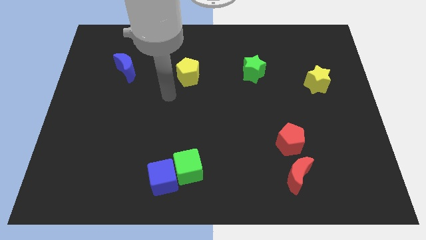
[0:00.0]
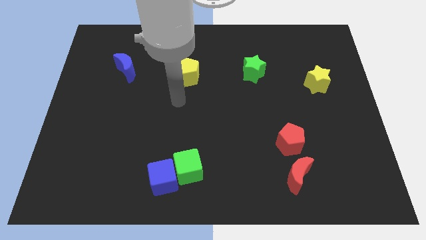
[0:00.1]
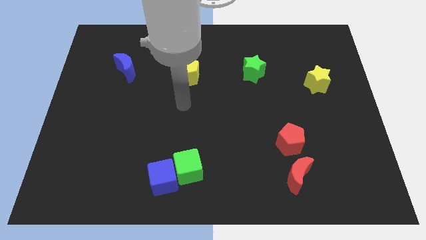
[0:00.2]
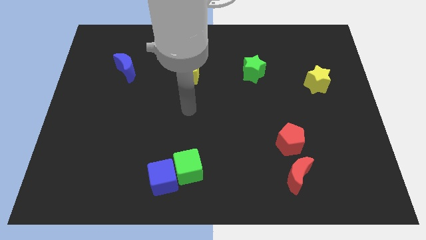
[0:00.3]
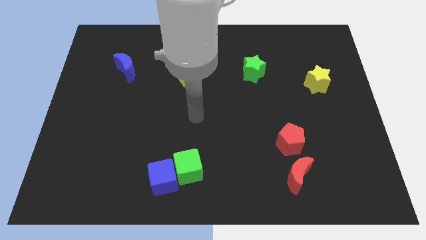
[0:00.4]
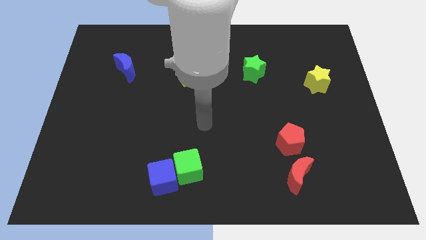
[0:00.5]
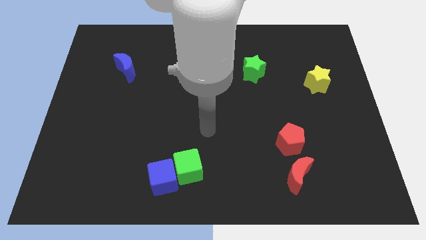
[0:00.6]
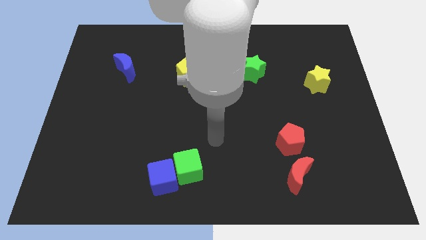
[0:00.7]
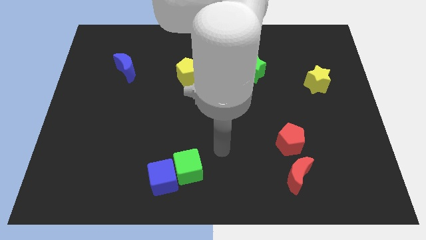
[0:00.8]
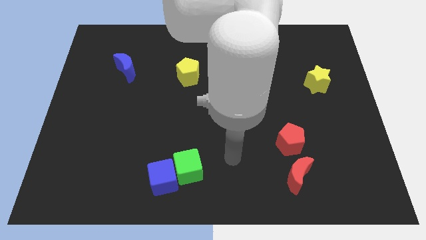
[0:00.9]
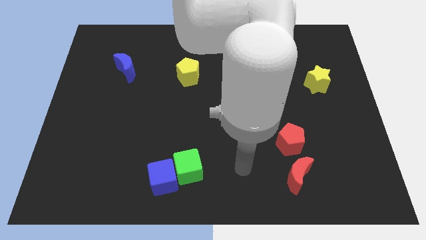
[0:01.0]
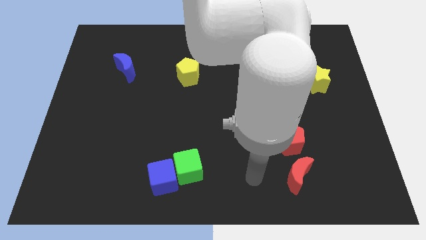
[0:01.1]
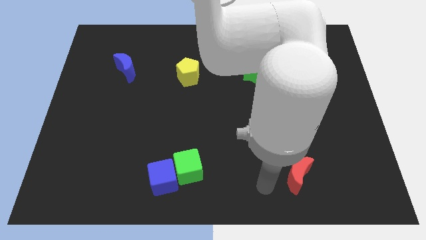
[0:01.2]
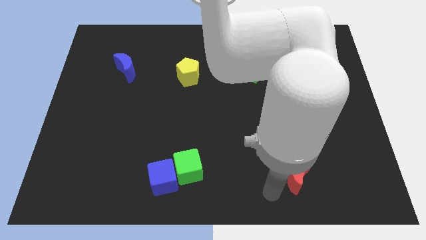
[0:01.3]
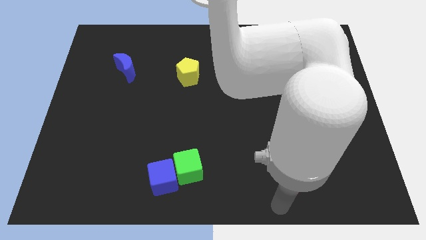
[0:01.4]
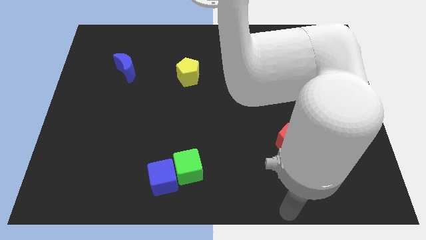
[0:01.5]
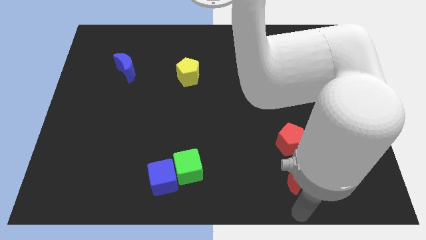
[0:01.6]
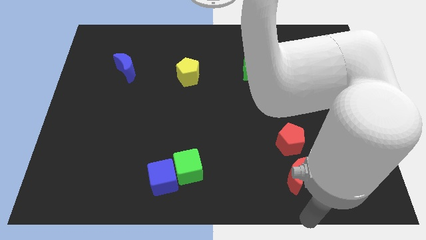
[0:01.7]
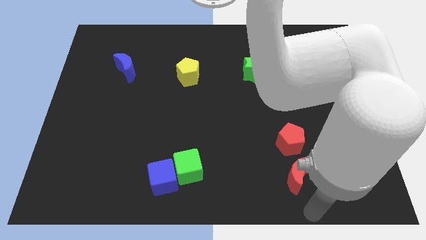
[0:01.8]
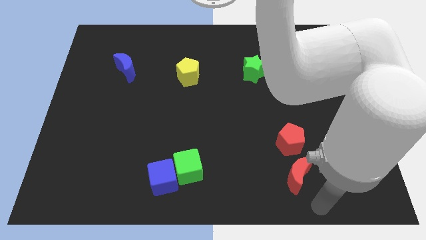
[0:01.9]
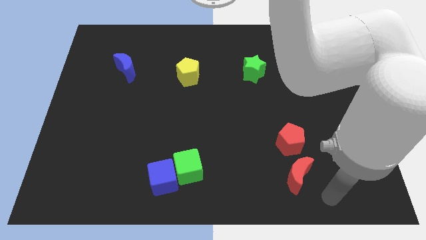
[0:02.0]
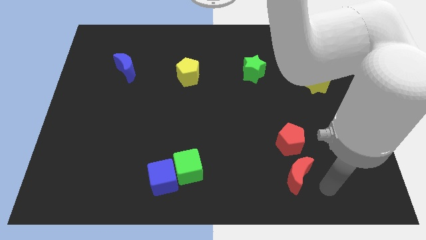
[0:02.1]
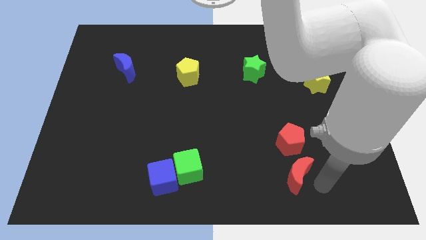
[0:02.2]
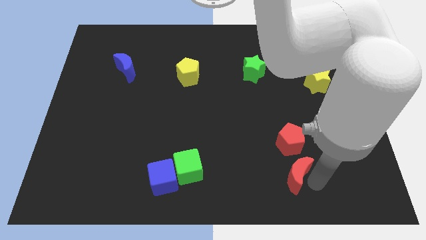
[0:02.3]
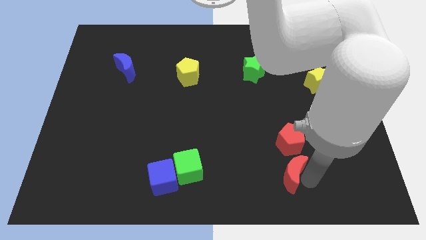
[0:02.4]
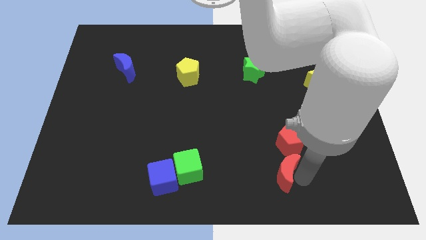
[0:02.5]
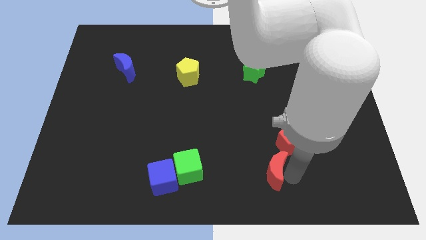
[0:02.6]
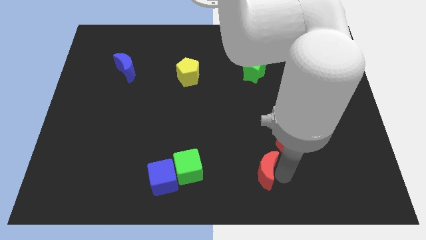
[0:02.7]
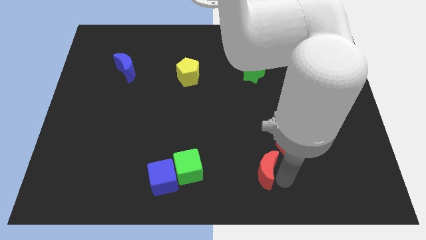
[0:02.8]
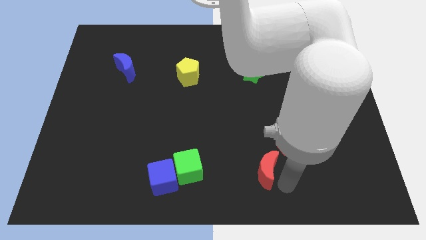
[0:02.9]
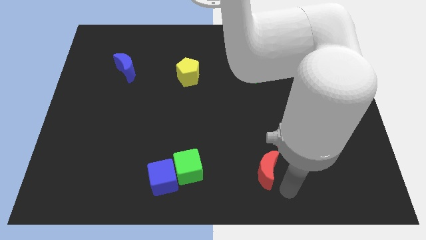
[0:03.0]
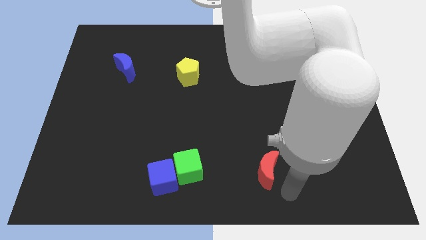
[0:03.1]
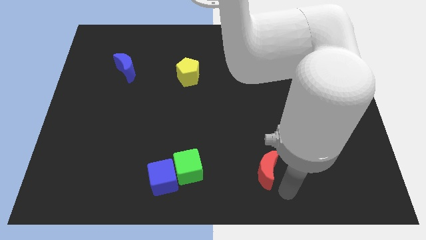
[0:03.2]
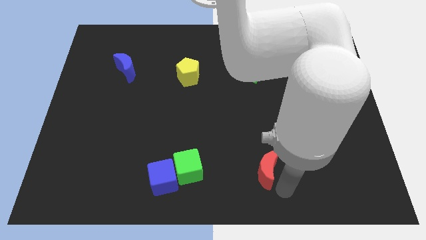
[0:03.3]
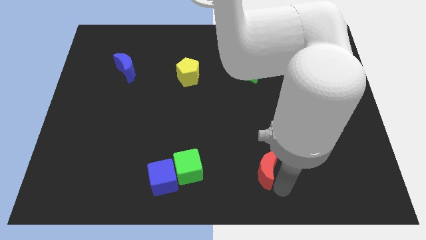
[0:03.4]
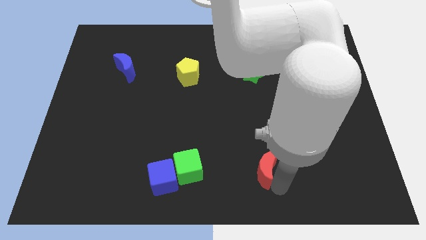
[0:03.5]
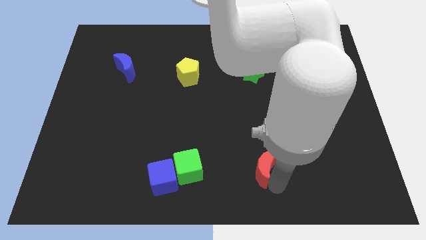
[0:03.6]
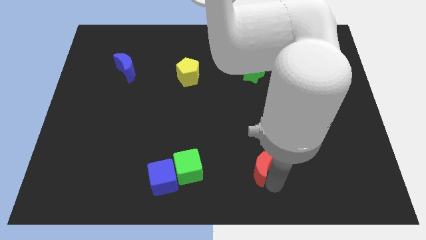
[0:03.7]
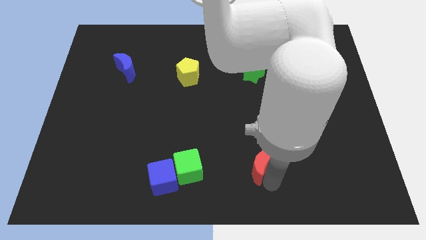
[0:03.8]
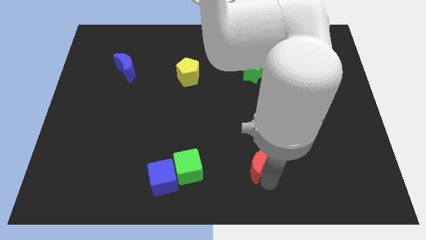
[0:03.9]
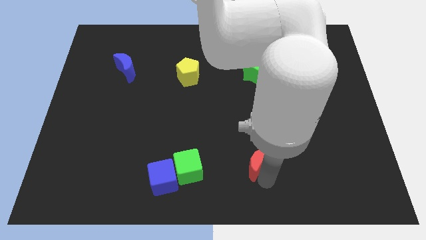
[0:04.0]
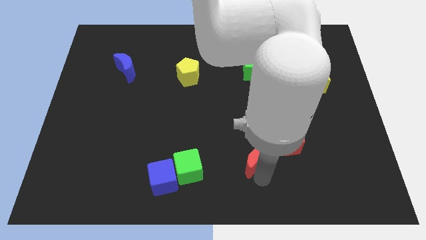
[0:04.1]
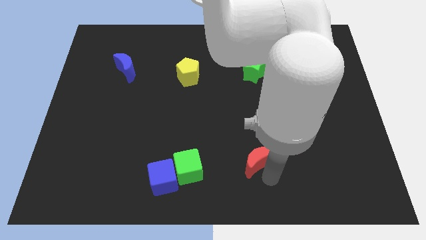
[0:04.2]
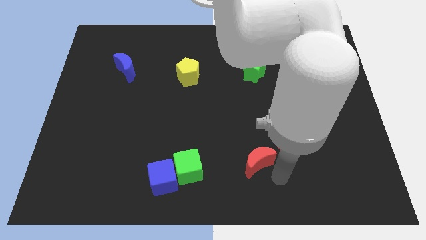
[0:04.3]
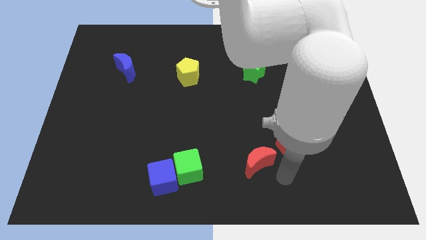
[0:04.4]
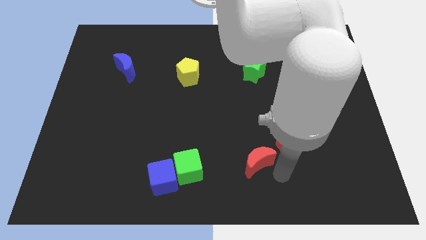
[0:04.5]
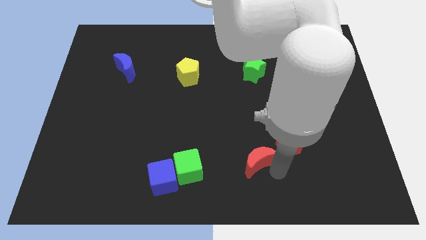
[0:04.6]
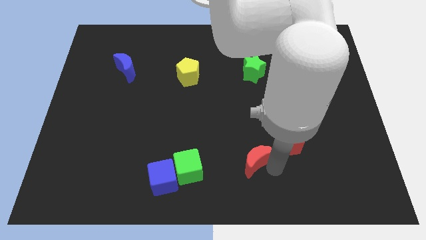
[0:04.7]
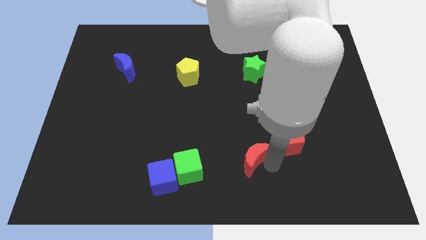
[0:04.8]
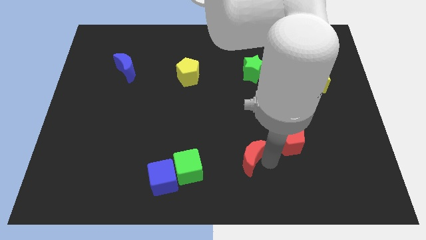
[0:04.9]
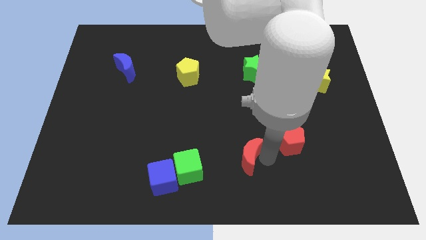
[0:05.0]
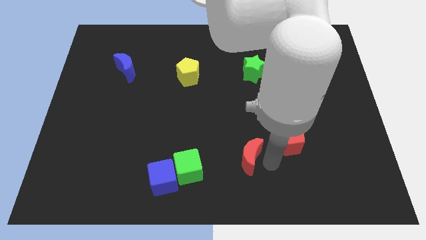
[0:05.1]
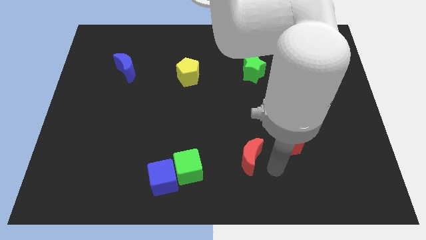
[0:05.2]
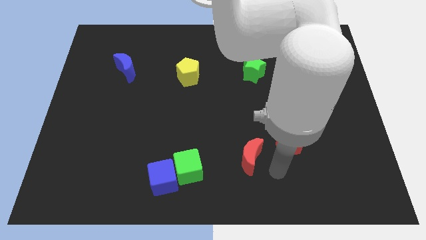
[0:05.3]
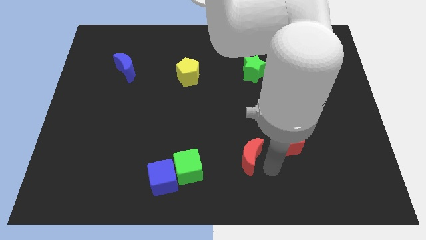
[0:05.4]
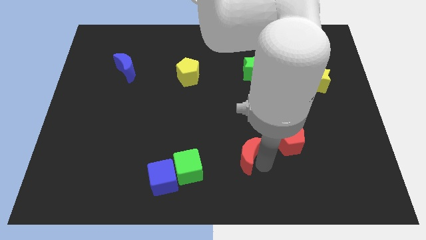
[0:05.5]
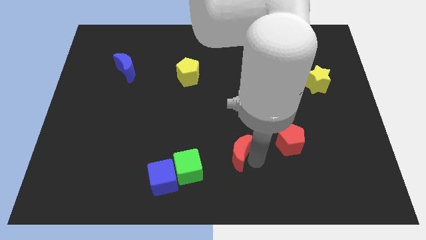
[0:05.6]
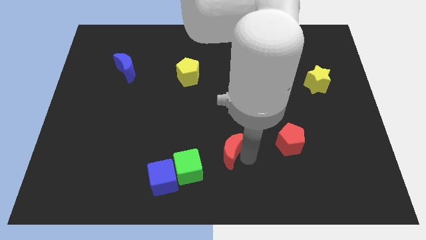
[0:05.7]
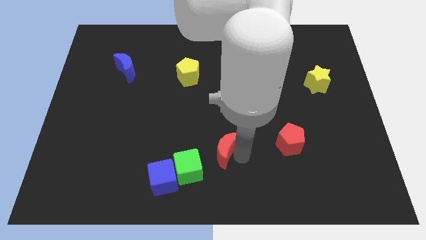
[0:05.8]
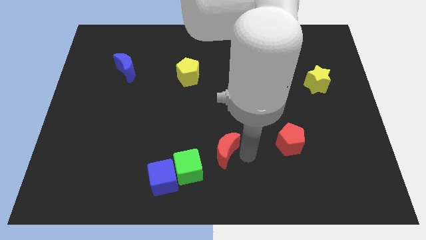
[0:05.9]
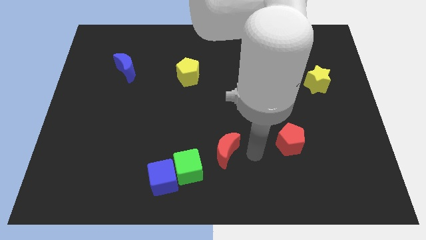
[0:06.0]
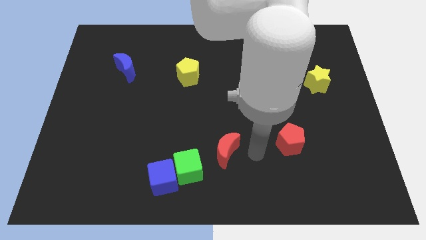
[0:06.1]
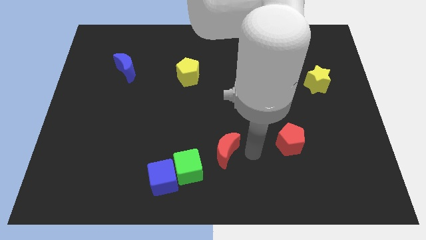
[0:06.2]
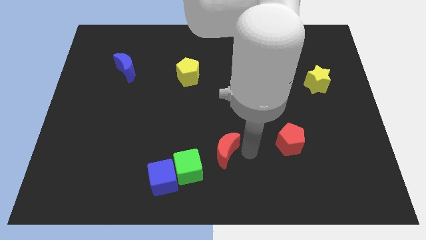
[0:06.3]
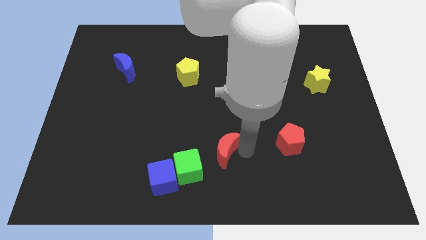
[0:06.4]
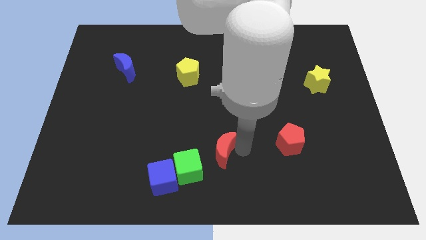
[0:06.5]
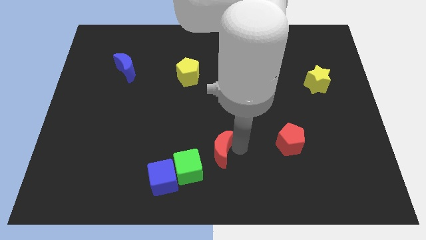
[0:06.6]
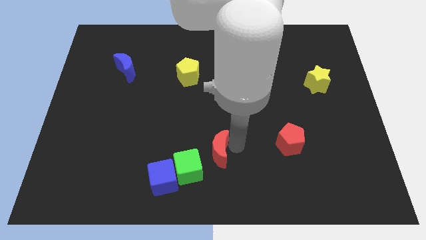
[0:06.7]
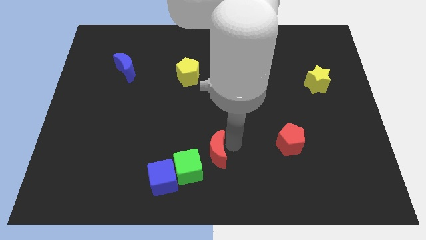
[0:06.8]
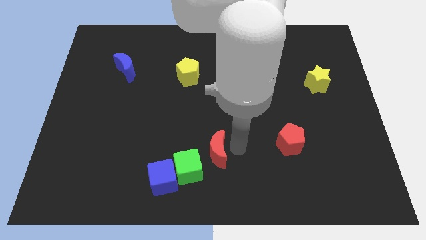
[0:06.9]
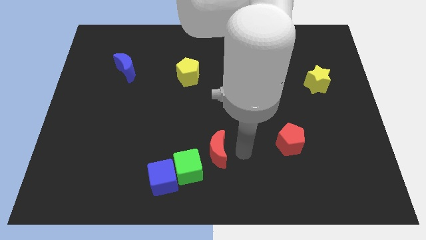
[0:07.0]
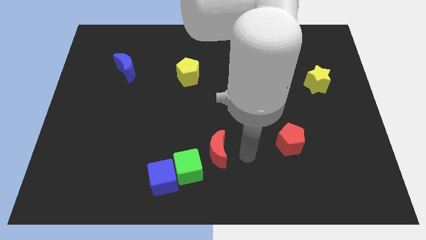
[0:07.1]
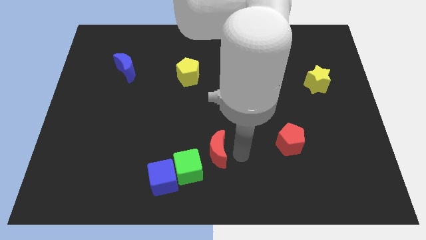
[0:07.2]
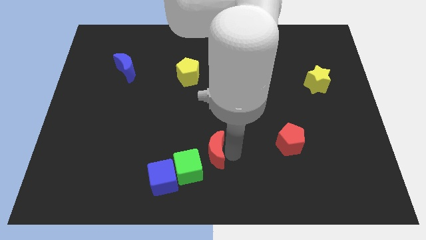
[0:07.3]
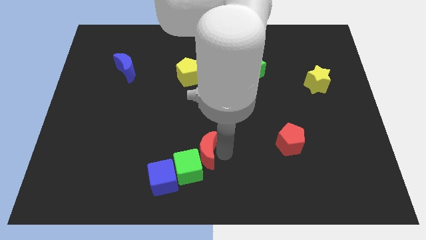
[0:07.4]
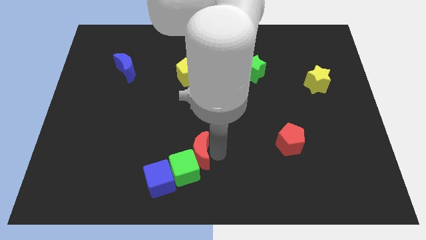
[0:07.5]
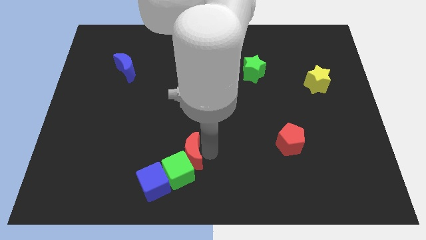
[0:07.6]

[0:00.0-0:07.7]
push the red moon left

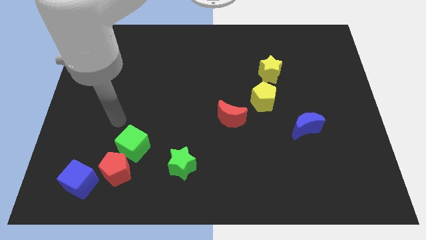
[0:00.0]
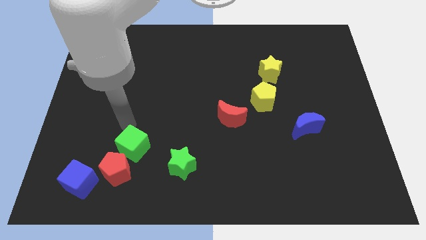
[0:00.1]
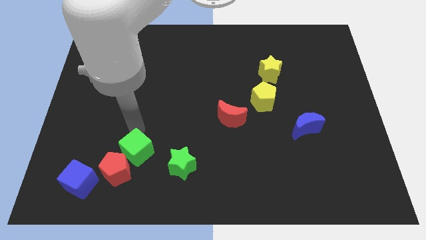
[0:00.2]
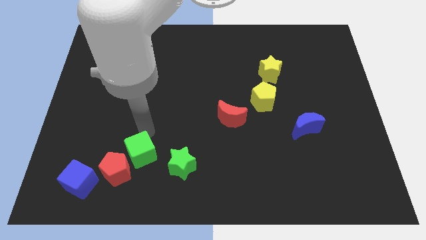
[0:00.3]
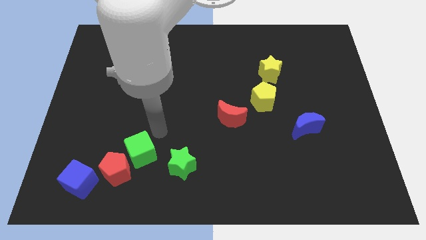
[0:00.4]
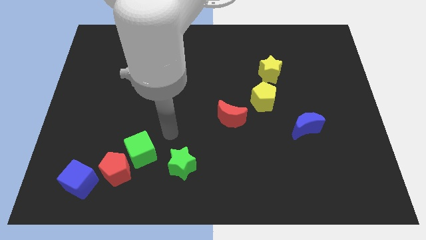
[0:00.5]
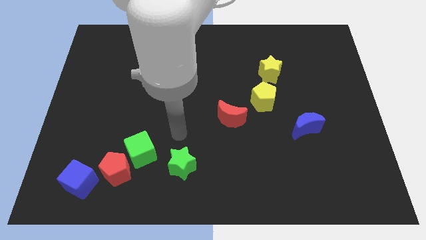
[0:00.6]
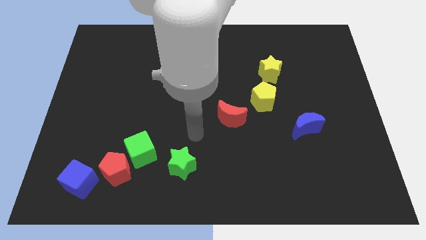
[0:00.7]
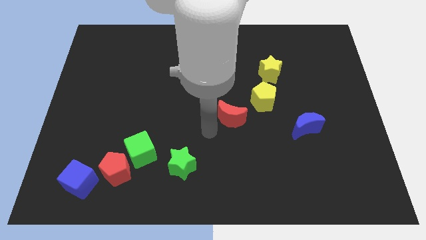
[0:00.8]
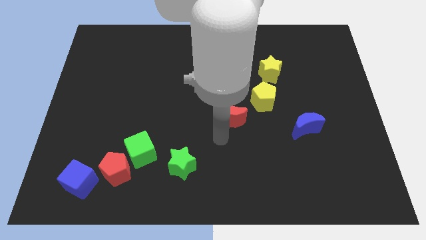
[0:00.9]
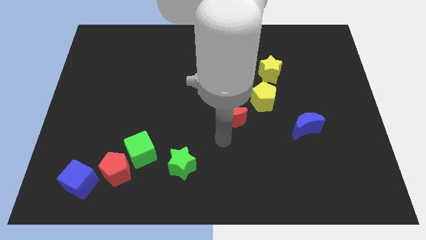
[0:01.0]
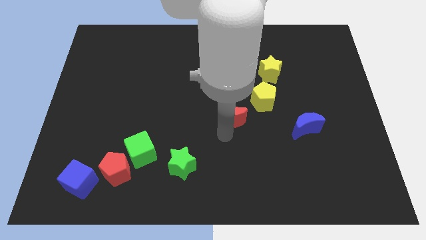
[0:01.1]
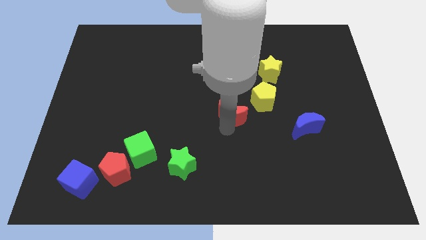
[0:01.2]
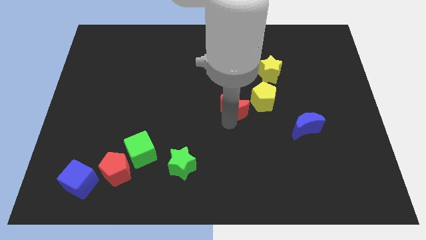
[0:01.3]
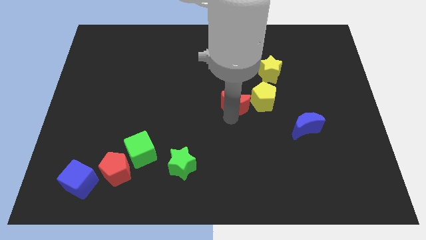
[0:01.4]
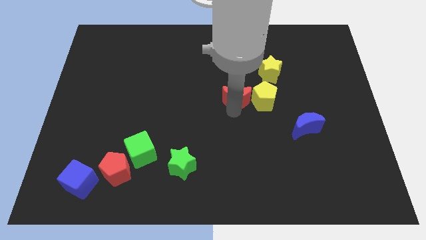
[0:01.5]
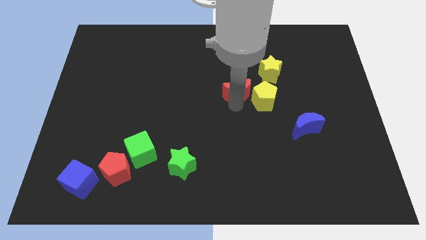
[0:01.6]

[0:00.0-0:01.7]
slide the red moon slightly upwards
